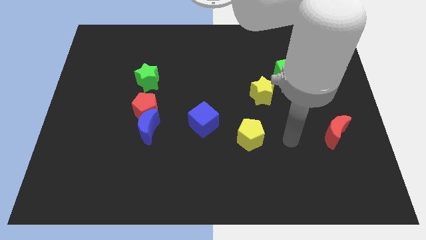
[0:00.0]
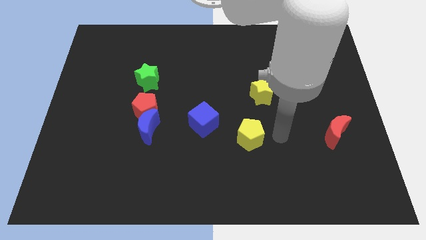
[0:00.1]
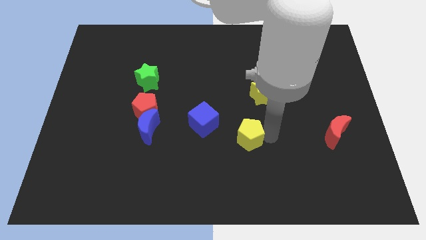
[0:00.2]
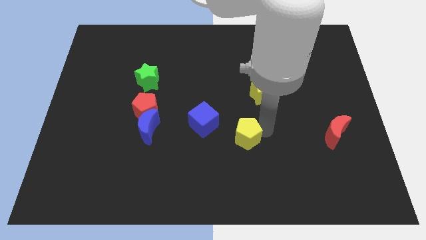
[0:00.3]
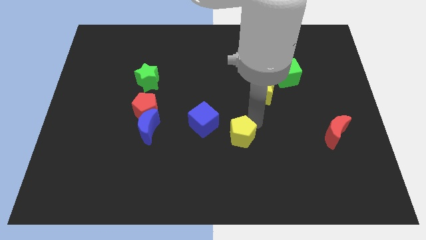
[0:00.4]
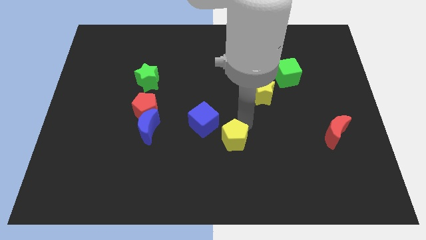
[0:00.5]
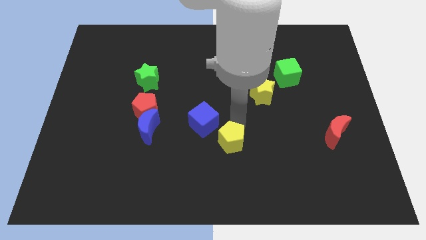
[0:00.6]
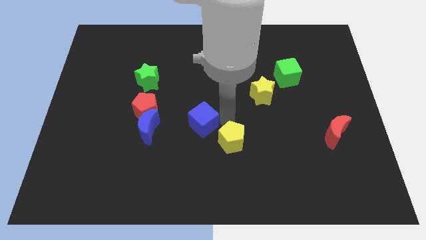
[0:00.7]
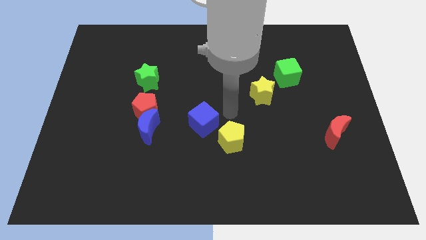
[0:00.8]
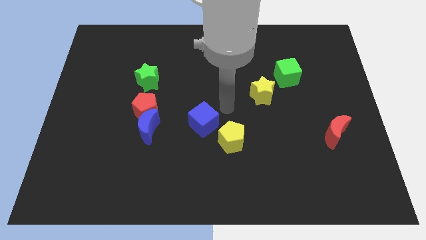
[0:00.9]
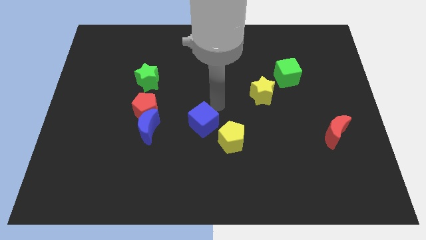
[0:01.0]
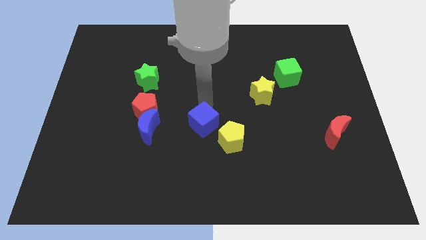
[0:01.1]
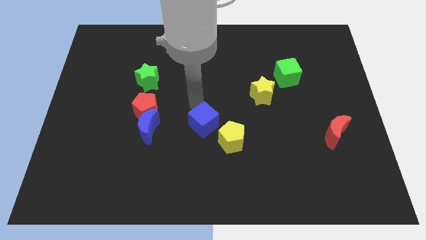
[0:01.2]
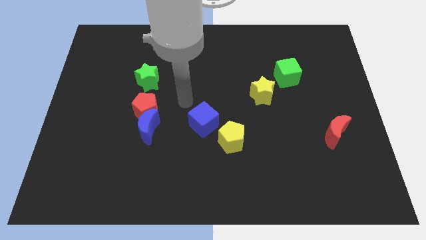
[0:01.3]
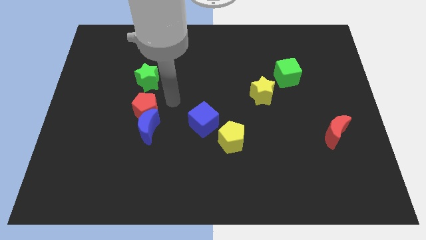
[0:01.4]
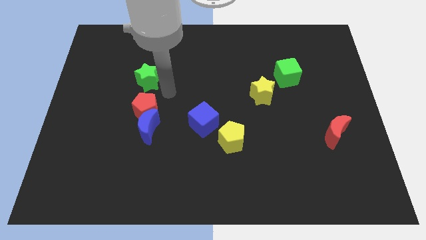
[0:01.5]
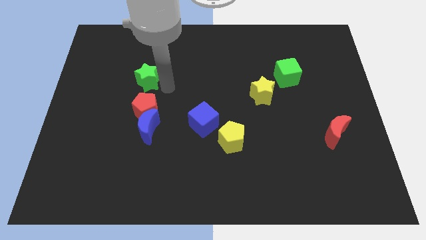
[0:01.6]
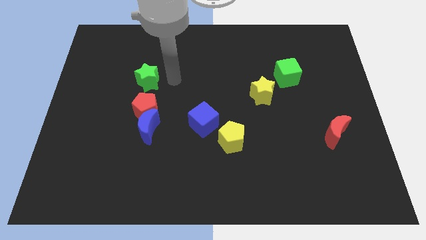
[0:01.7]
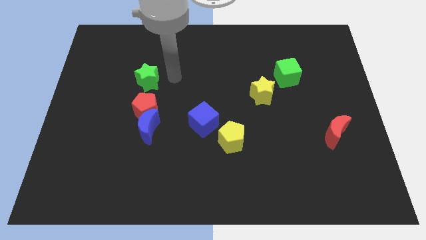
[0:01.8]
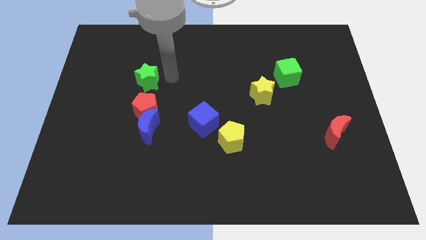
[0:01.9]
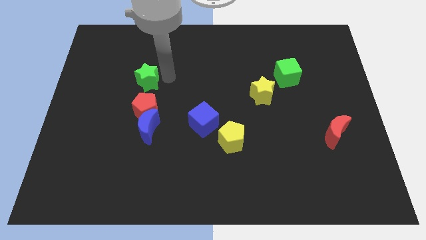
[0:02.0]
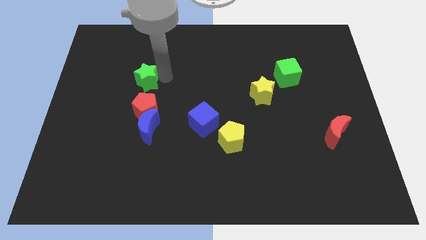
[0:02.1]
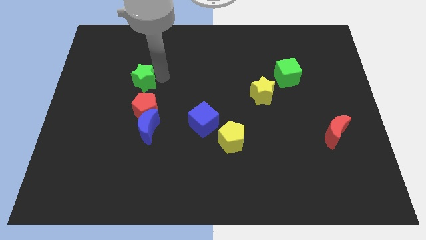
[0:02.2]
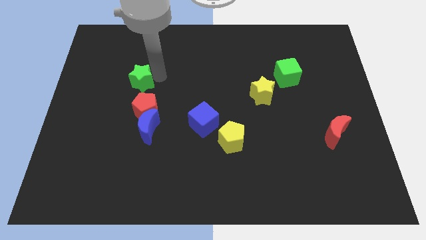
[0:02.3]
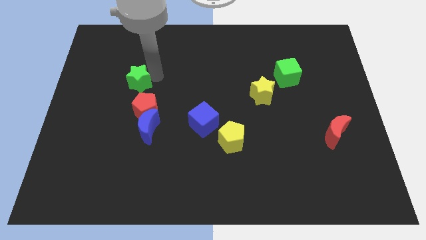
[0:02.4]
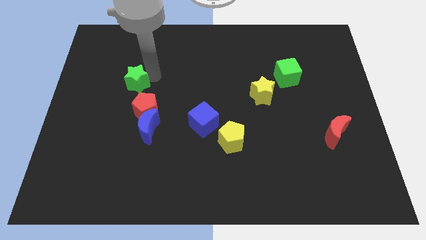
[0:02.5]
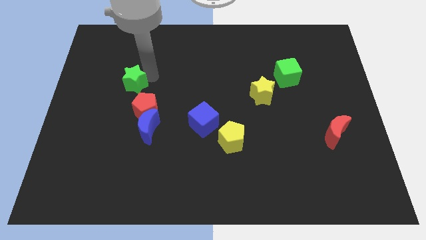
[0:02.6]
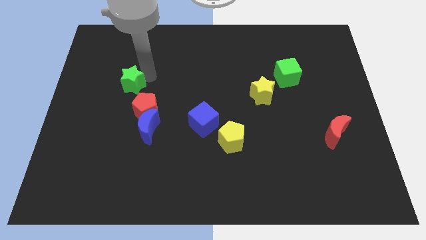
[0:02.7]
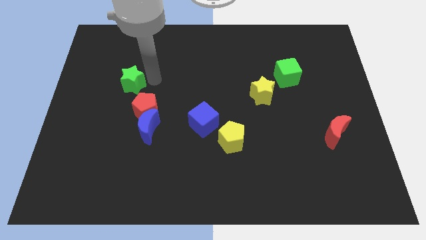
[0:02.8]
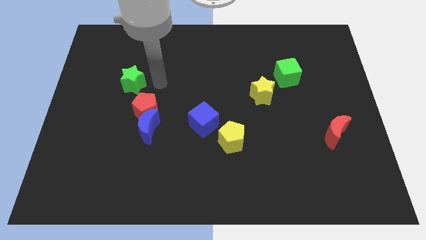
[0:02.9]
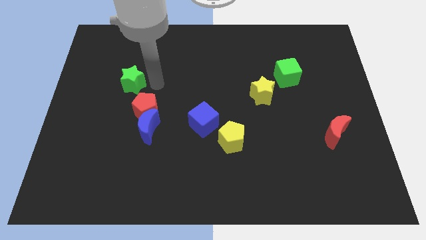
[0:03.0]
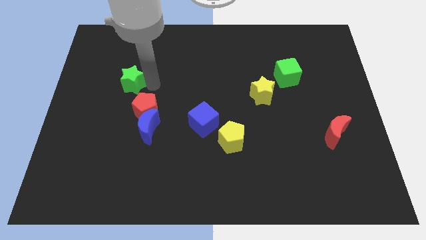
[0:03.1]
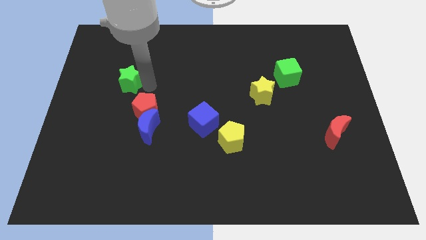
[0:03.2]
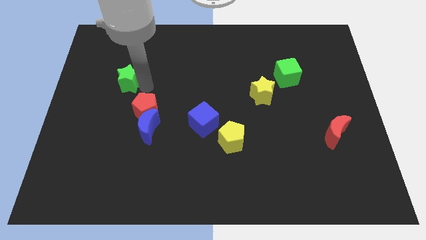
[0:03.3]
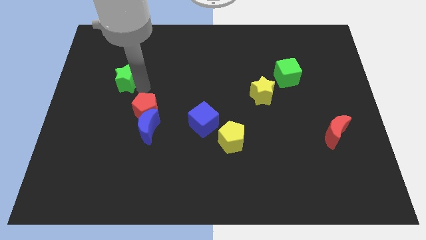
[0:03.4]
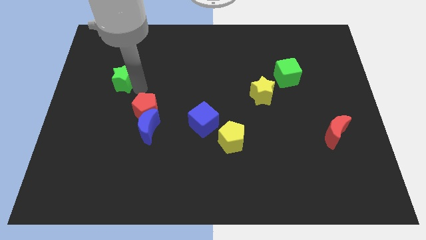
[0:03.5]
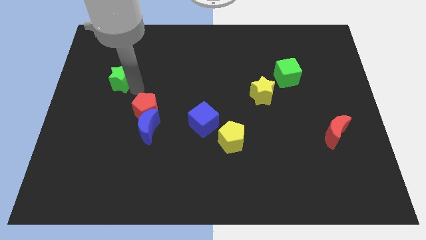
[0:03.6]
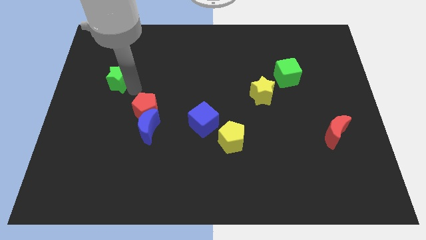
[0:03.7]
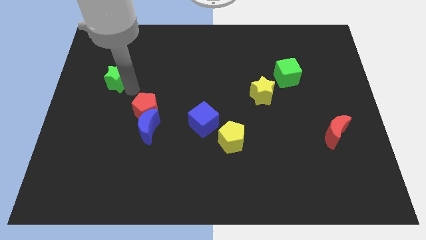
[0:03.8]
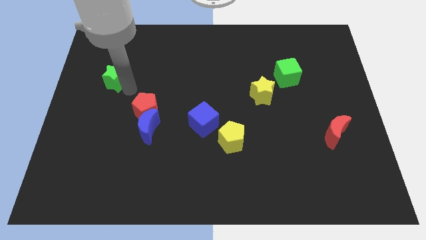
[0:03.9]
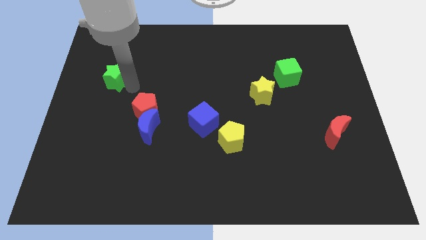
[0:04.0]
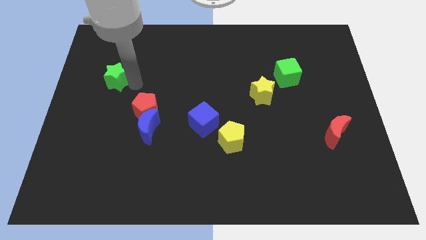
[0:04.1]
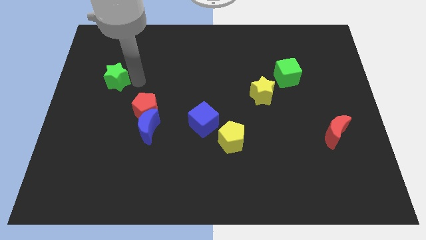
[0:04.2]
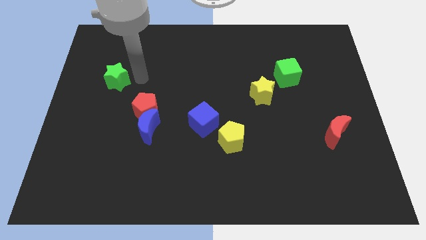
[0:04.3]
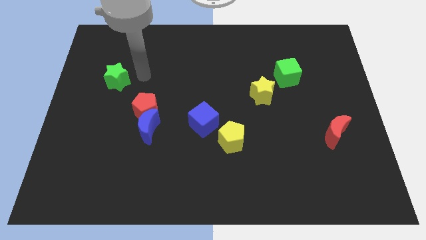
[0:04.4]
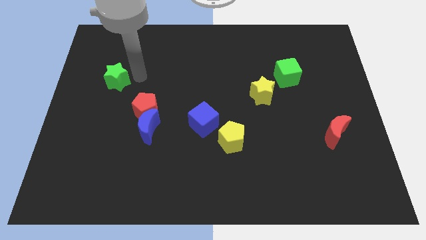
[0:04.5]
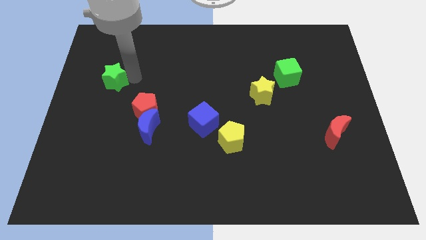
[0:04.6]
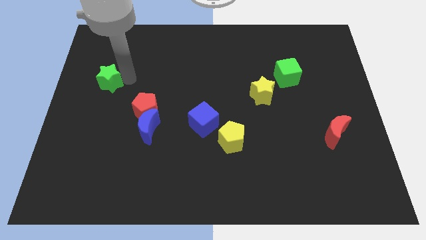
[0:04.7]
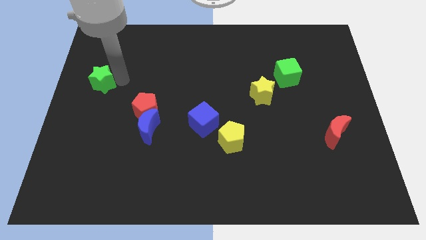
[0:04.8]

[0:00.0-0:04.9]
move the green star to the left side of the board

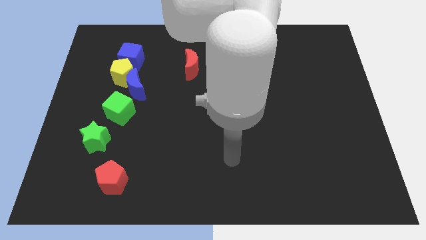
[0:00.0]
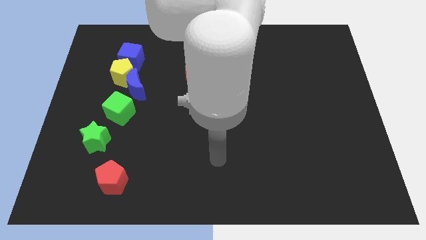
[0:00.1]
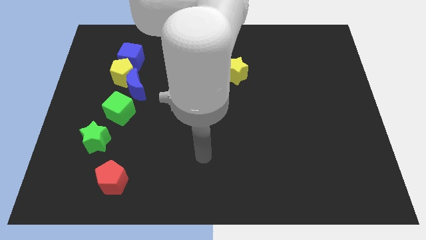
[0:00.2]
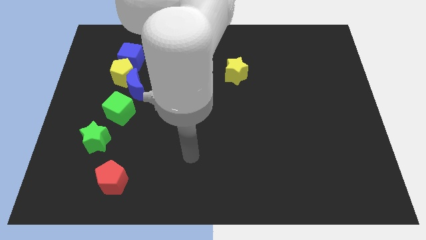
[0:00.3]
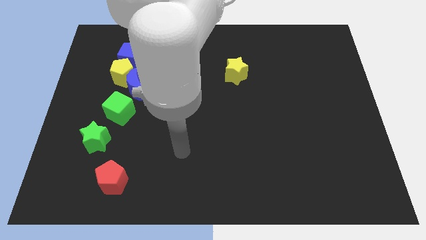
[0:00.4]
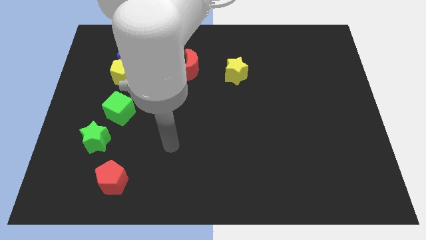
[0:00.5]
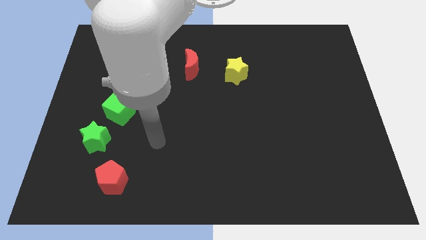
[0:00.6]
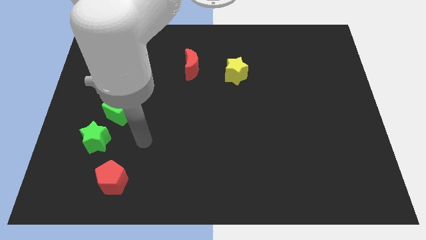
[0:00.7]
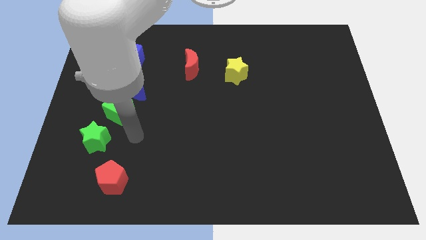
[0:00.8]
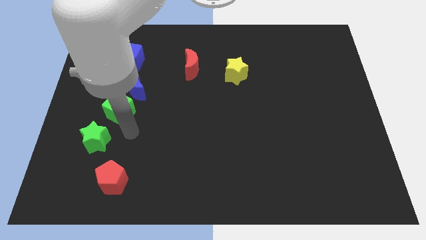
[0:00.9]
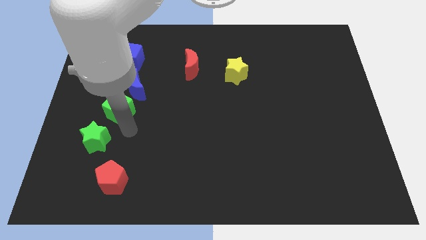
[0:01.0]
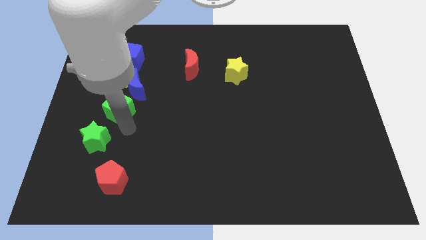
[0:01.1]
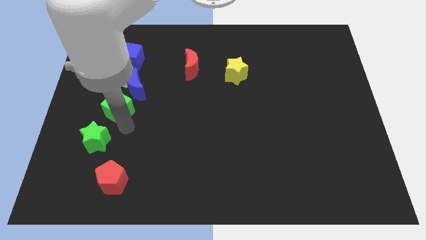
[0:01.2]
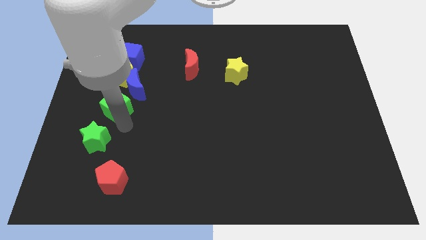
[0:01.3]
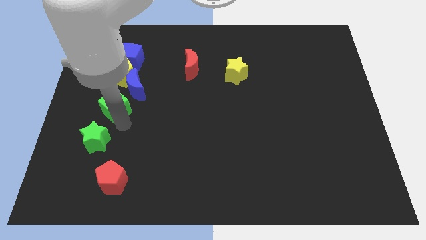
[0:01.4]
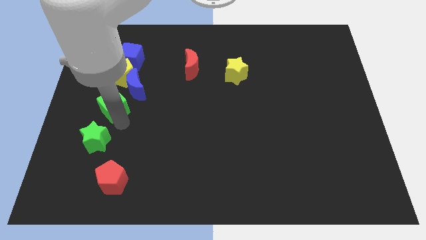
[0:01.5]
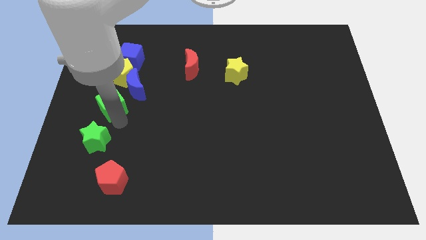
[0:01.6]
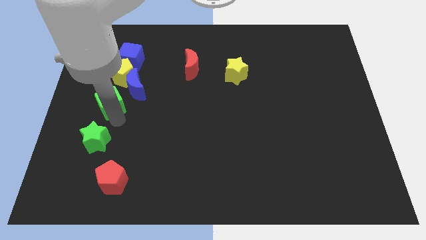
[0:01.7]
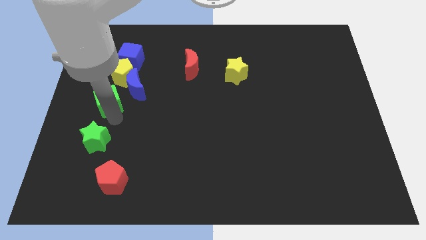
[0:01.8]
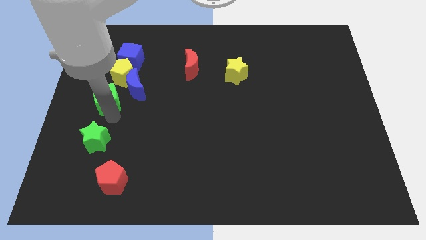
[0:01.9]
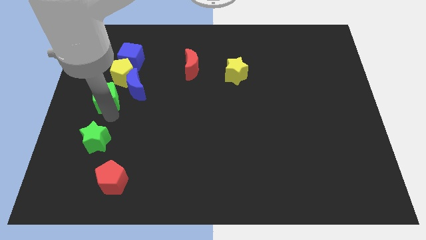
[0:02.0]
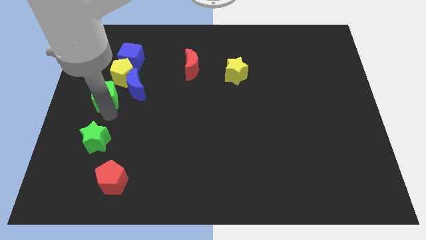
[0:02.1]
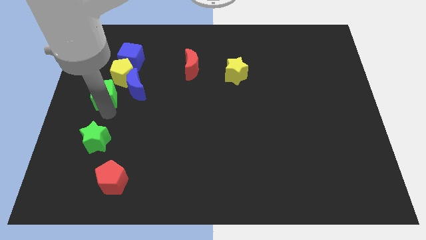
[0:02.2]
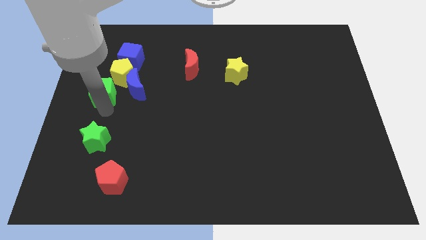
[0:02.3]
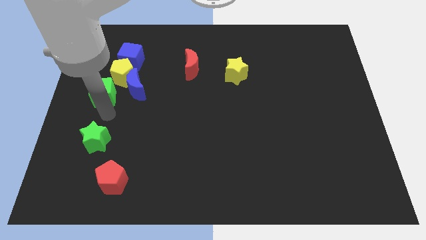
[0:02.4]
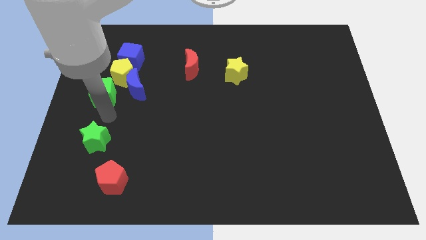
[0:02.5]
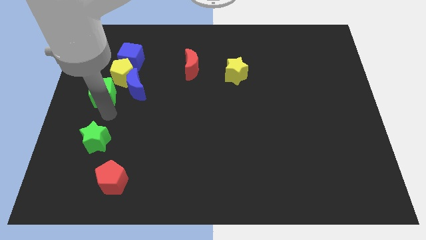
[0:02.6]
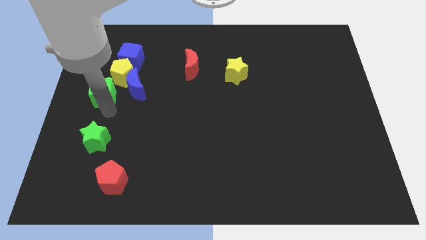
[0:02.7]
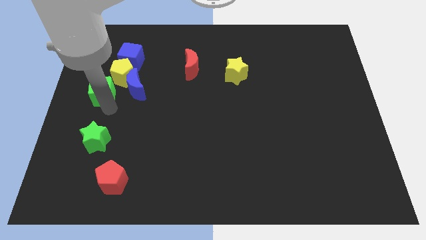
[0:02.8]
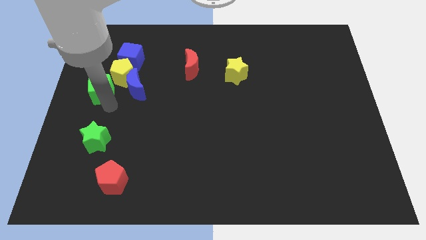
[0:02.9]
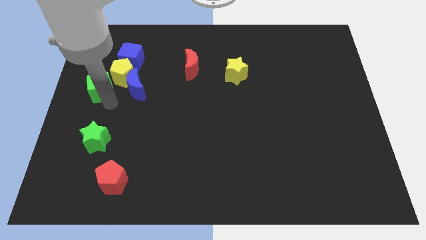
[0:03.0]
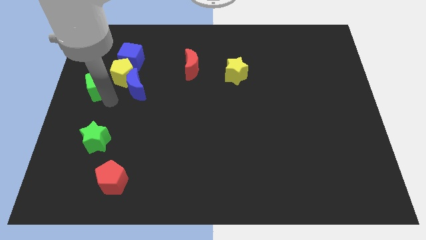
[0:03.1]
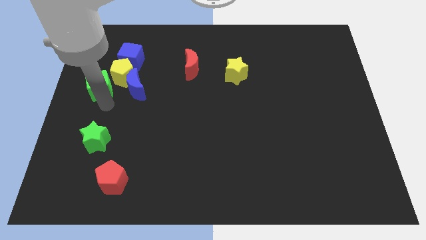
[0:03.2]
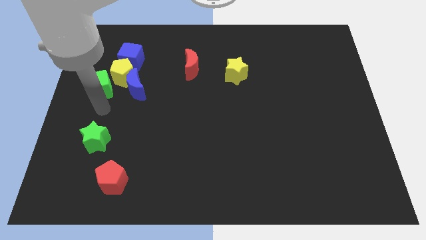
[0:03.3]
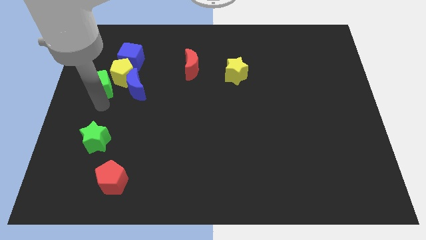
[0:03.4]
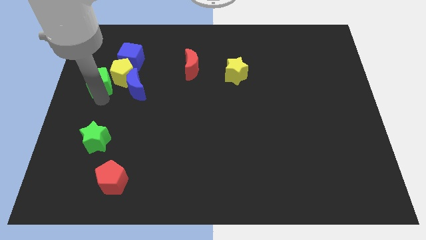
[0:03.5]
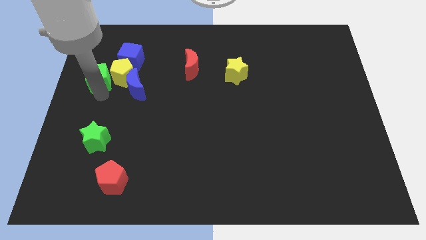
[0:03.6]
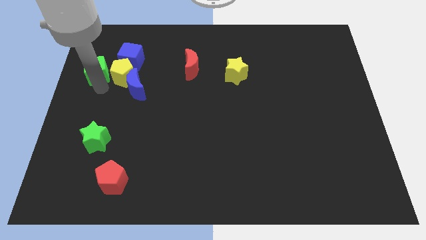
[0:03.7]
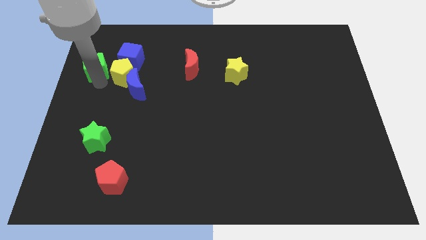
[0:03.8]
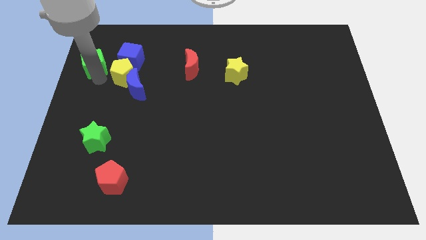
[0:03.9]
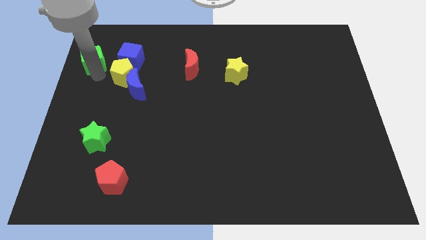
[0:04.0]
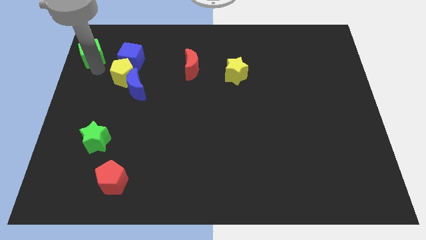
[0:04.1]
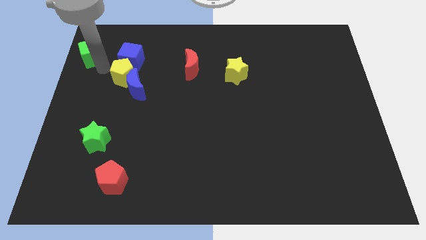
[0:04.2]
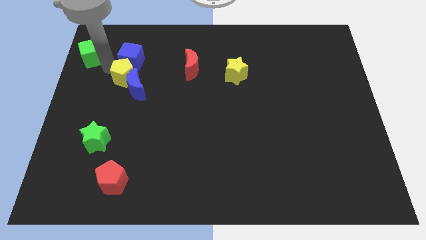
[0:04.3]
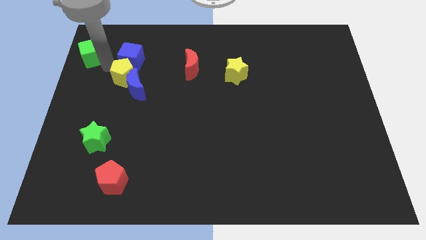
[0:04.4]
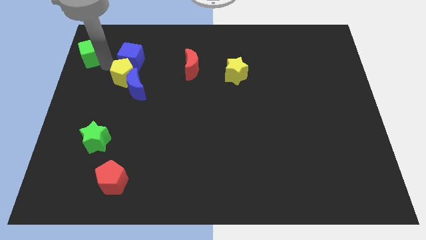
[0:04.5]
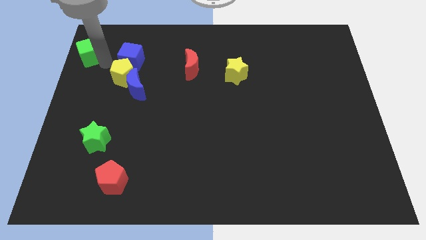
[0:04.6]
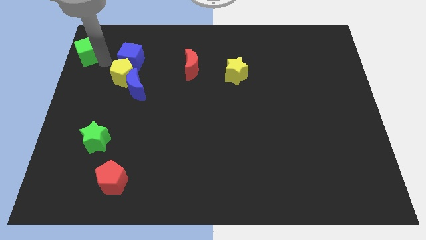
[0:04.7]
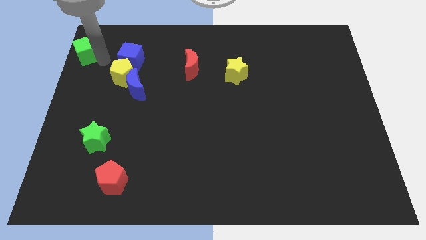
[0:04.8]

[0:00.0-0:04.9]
slide the green cube to the upper left corner
